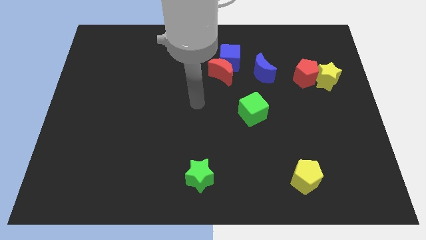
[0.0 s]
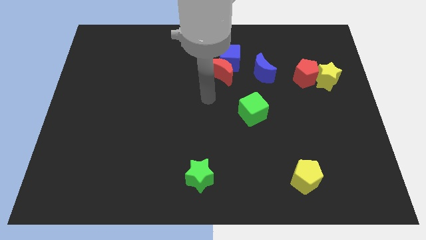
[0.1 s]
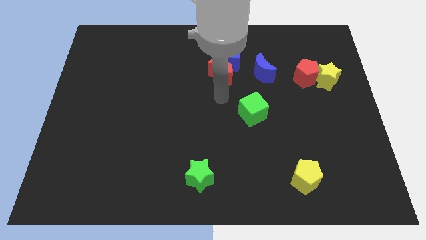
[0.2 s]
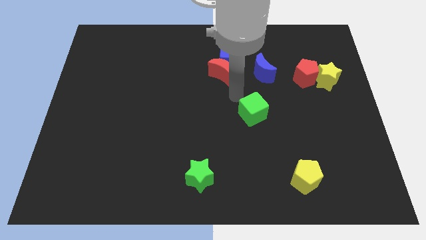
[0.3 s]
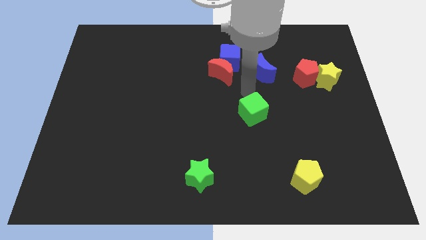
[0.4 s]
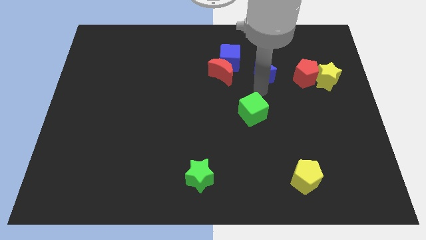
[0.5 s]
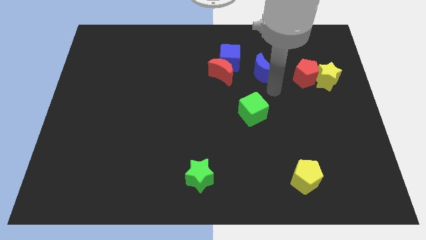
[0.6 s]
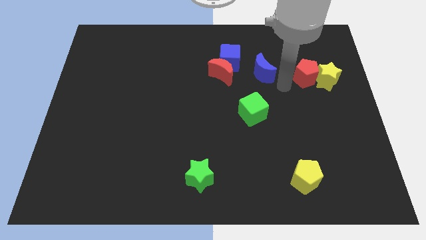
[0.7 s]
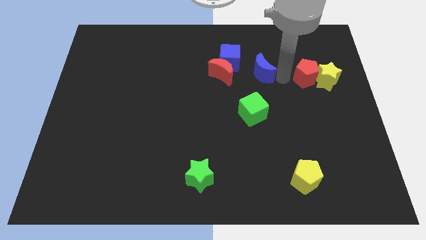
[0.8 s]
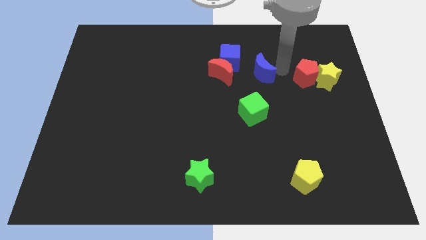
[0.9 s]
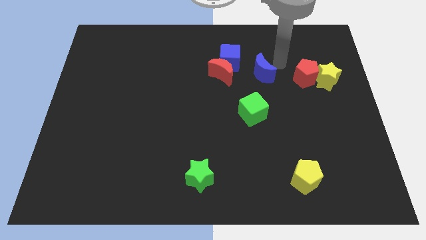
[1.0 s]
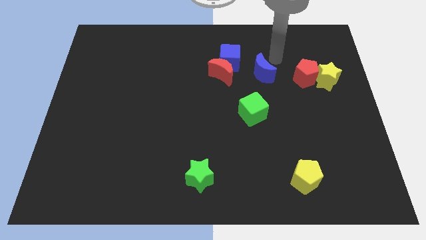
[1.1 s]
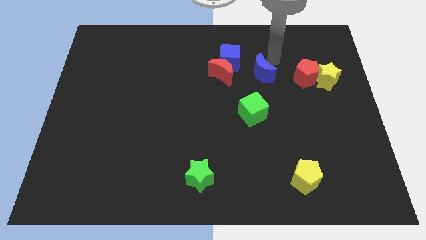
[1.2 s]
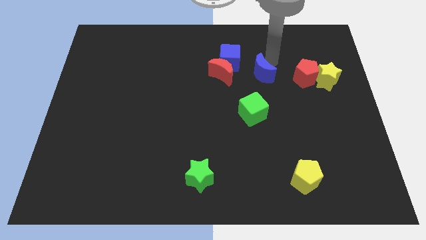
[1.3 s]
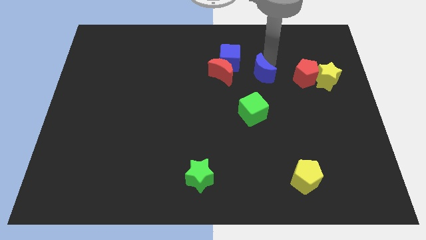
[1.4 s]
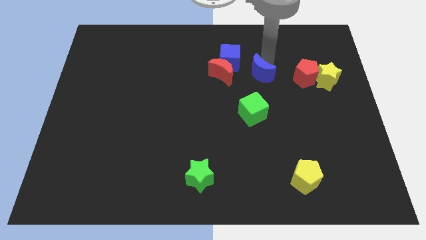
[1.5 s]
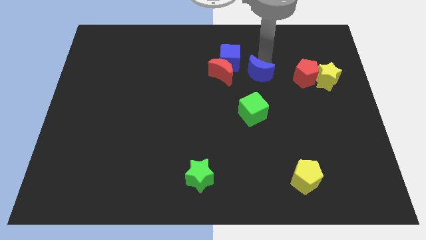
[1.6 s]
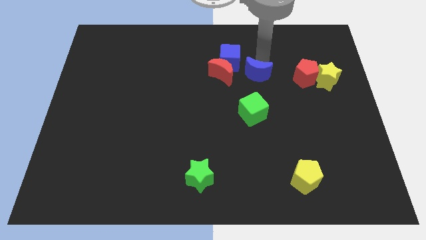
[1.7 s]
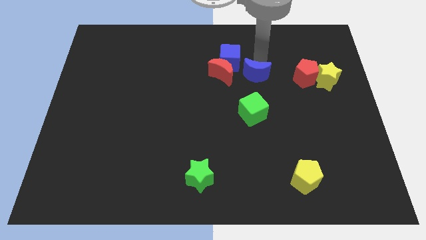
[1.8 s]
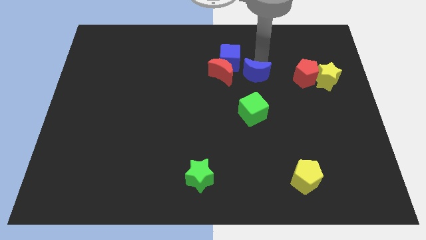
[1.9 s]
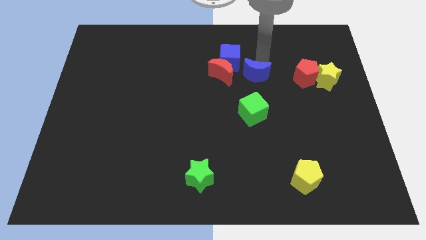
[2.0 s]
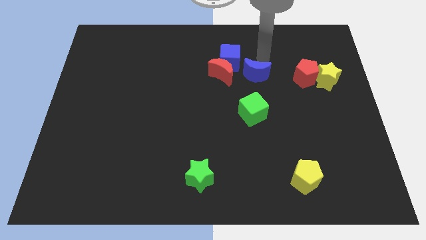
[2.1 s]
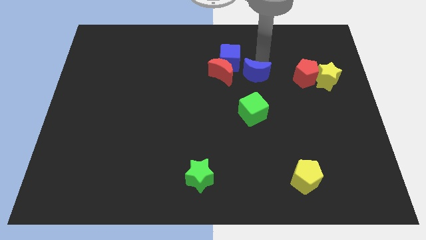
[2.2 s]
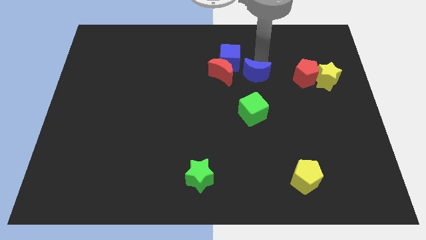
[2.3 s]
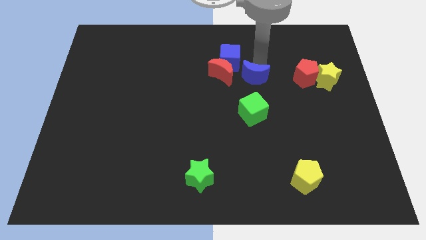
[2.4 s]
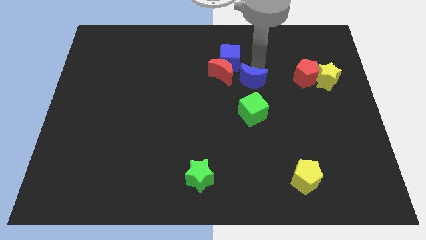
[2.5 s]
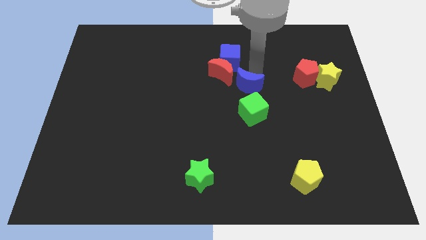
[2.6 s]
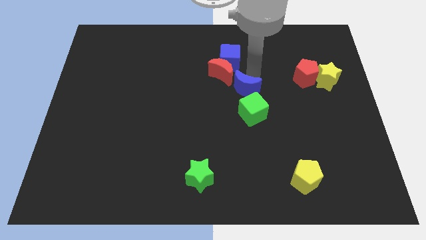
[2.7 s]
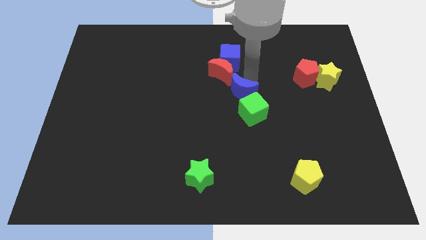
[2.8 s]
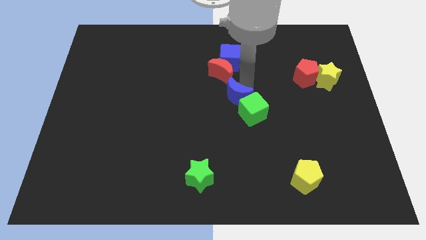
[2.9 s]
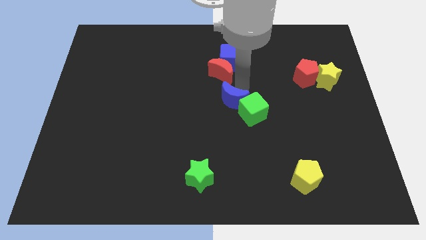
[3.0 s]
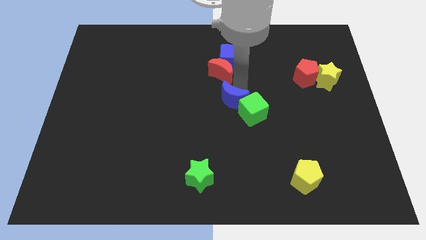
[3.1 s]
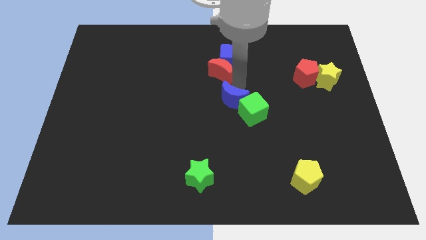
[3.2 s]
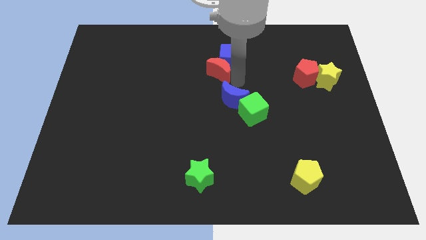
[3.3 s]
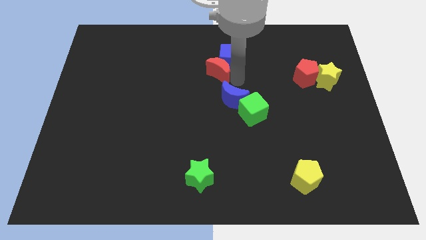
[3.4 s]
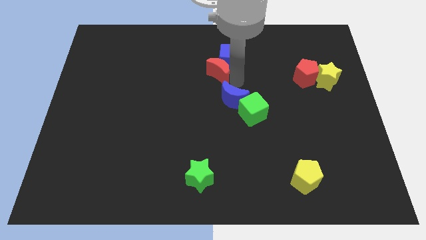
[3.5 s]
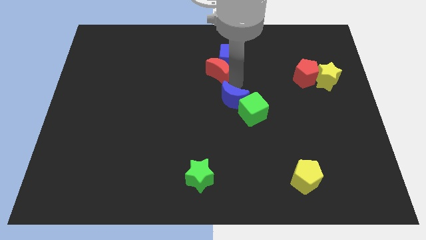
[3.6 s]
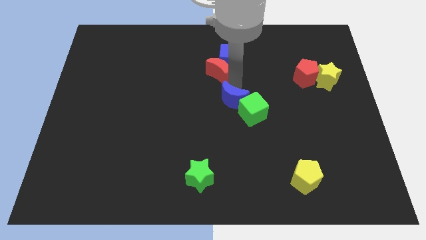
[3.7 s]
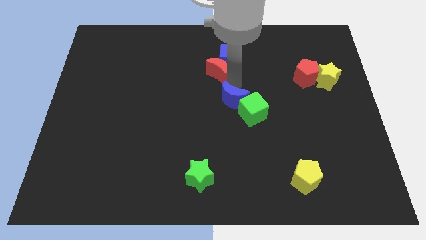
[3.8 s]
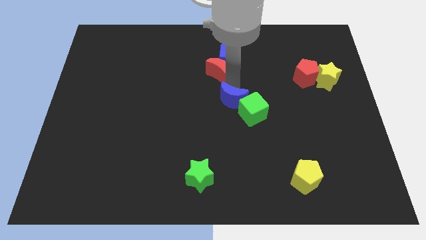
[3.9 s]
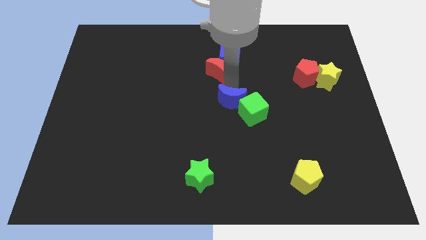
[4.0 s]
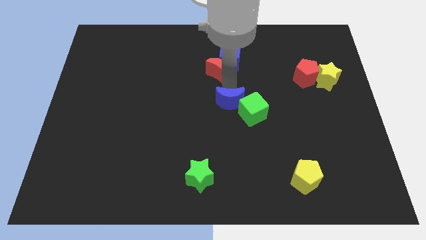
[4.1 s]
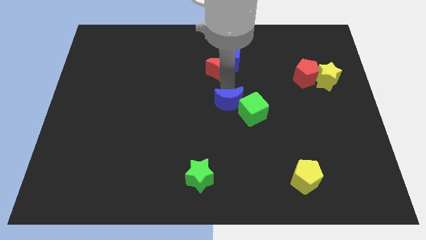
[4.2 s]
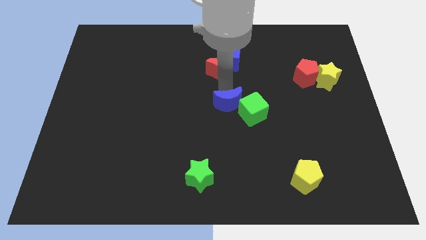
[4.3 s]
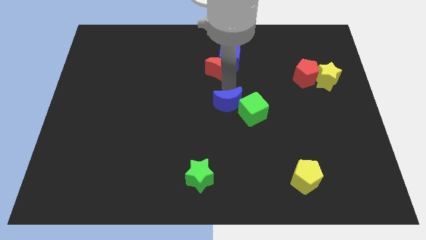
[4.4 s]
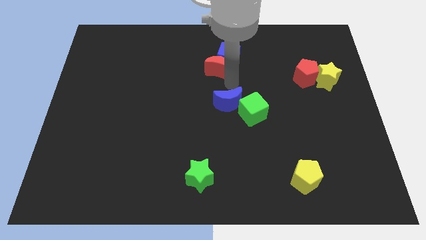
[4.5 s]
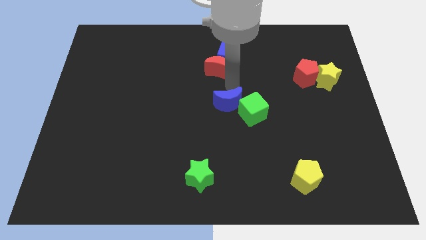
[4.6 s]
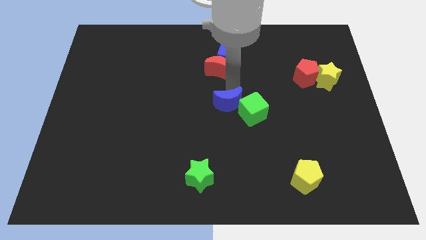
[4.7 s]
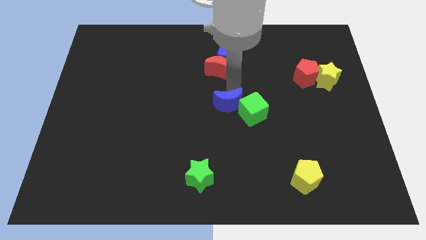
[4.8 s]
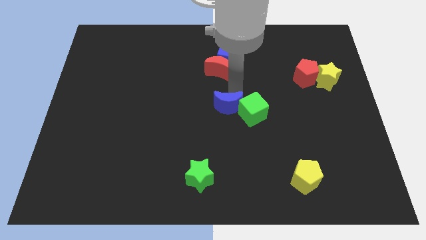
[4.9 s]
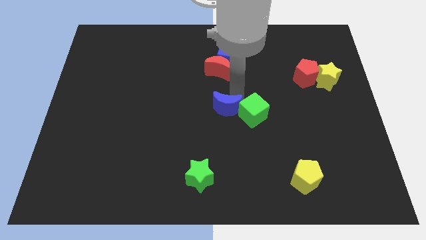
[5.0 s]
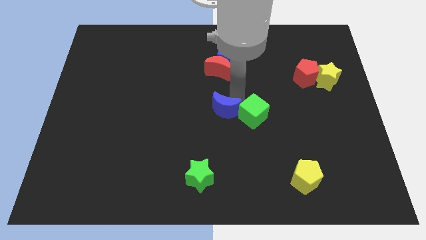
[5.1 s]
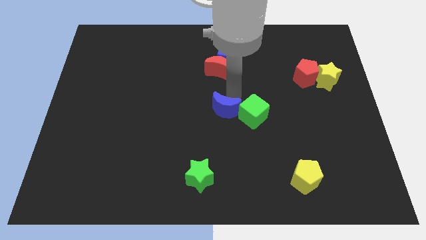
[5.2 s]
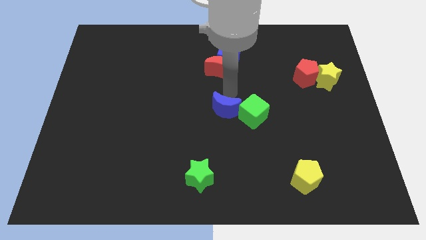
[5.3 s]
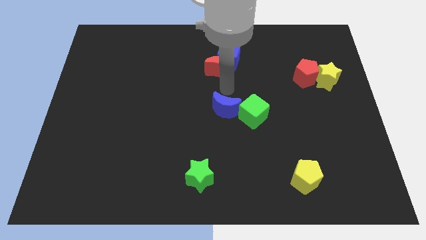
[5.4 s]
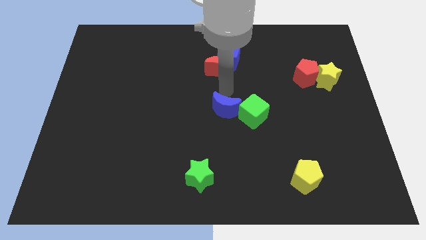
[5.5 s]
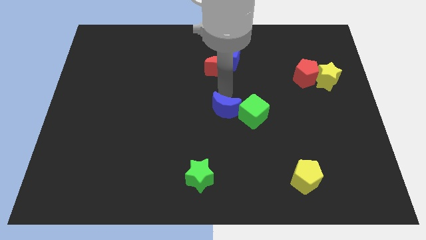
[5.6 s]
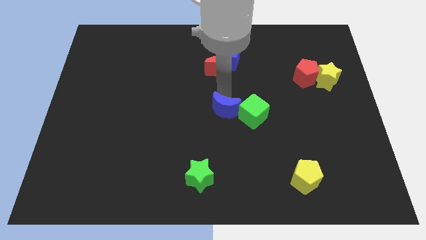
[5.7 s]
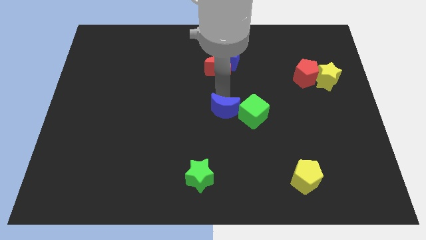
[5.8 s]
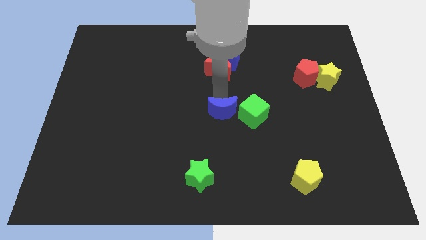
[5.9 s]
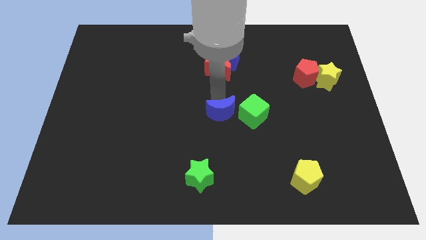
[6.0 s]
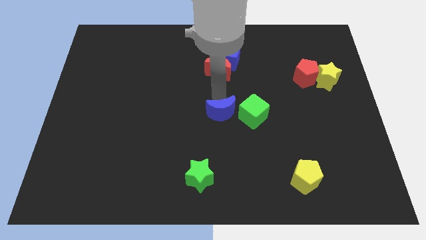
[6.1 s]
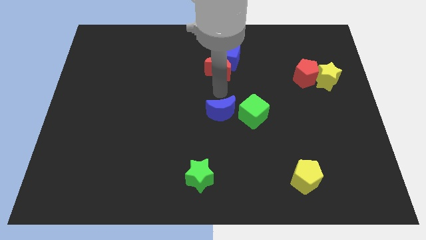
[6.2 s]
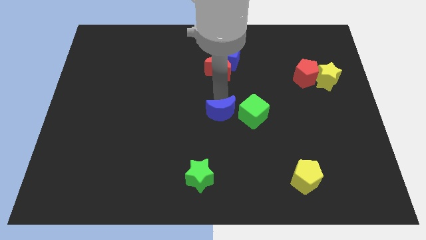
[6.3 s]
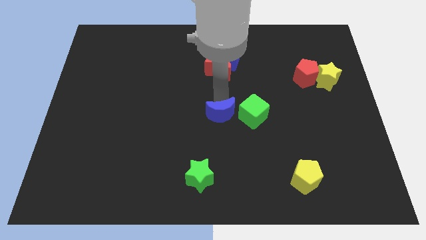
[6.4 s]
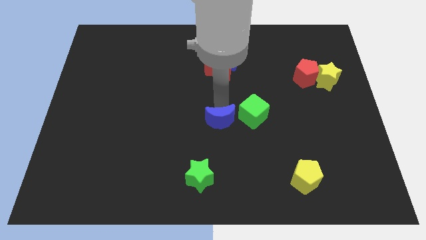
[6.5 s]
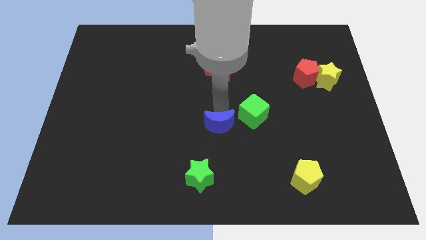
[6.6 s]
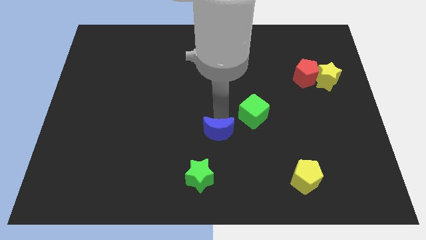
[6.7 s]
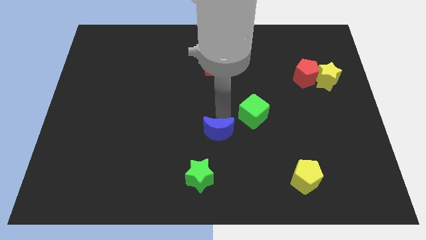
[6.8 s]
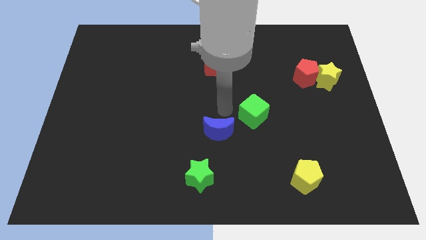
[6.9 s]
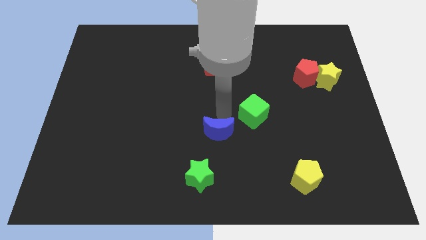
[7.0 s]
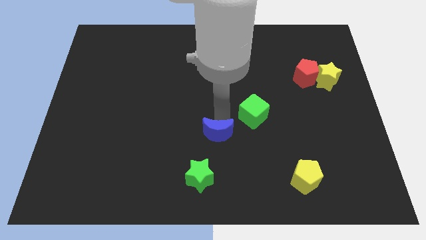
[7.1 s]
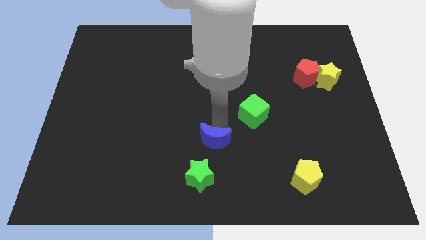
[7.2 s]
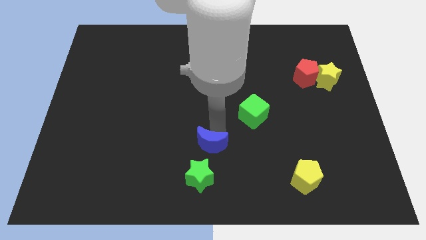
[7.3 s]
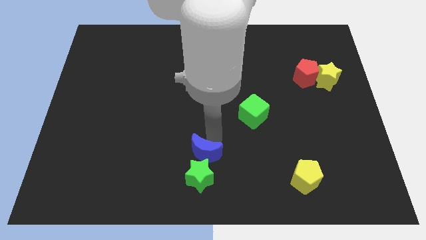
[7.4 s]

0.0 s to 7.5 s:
move the blue moon next to the green star

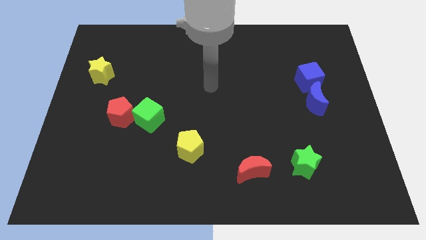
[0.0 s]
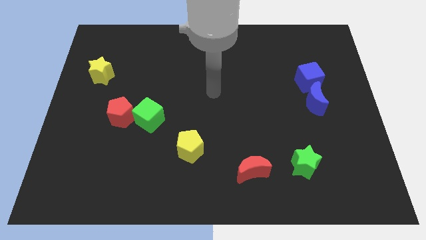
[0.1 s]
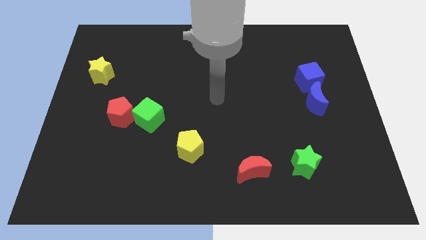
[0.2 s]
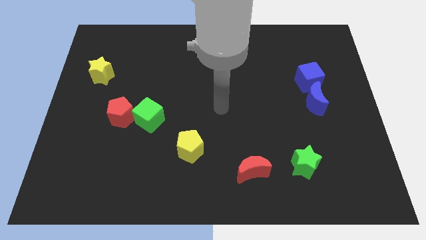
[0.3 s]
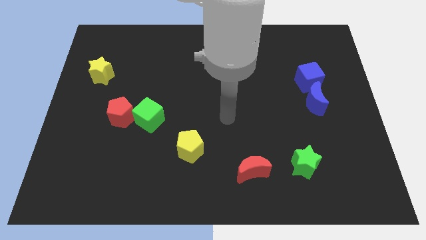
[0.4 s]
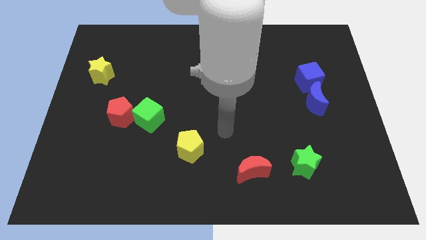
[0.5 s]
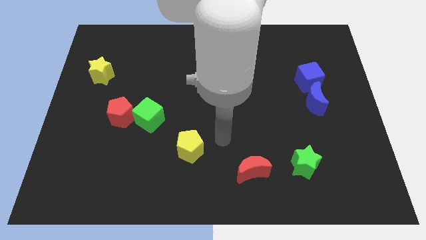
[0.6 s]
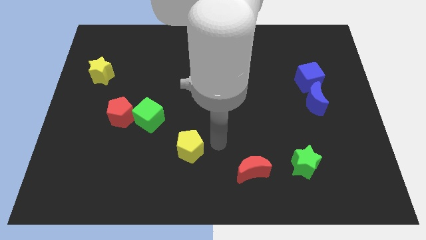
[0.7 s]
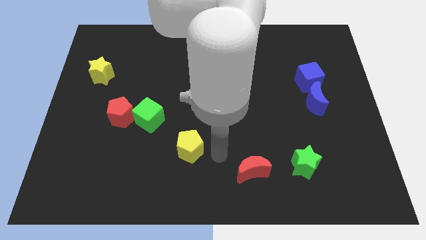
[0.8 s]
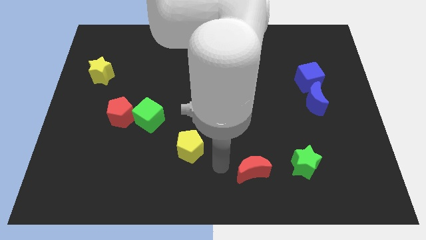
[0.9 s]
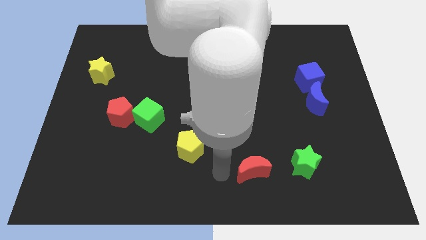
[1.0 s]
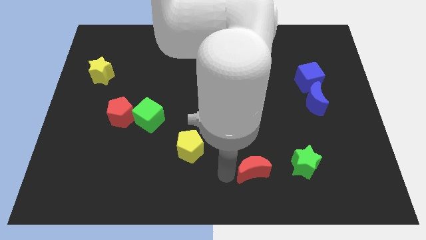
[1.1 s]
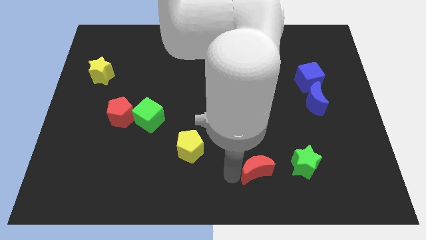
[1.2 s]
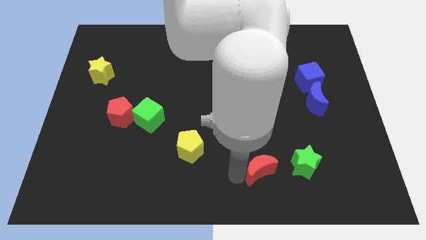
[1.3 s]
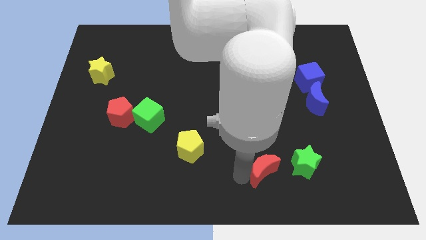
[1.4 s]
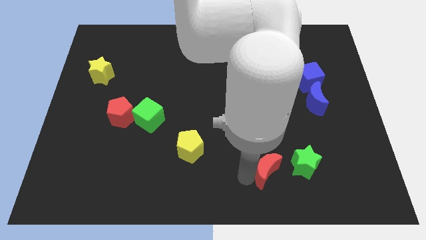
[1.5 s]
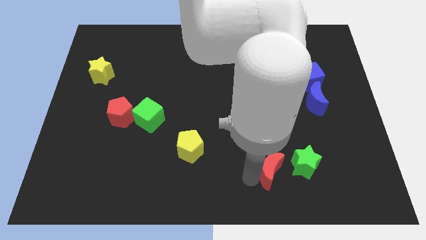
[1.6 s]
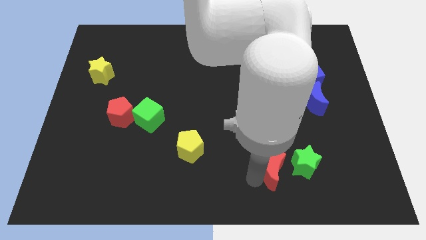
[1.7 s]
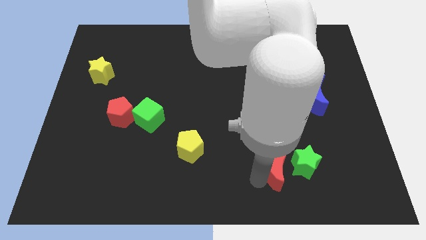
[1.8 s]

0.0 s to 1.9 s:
push the red moon to the green star
